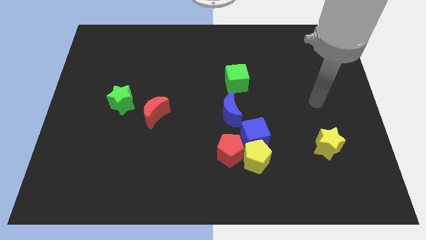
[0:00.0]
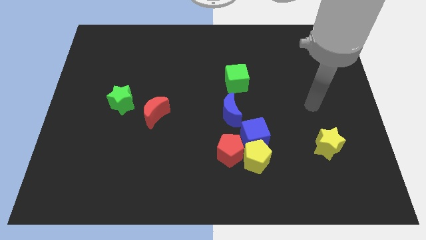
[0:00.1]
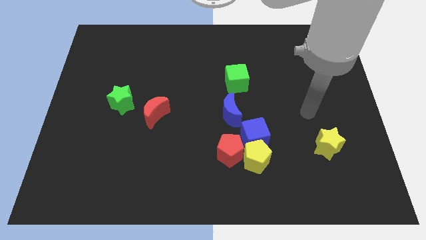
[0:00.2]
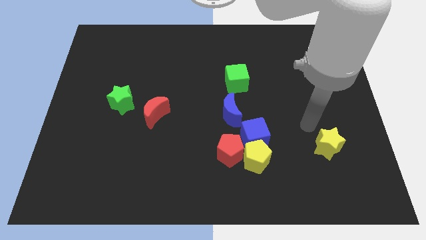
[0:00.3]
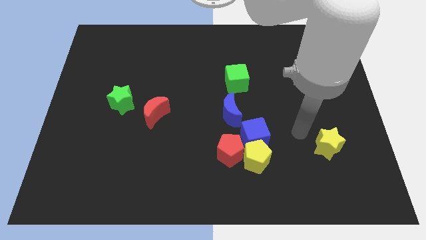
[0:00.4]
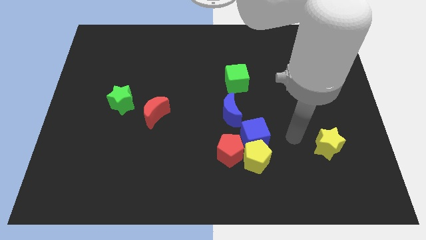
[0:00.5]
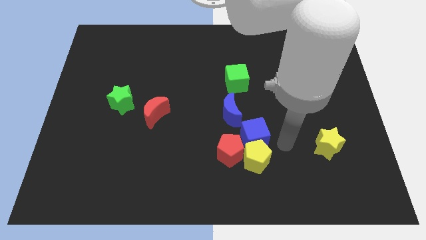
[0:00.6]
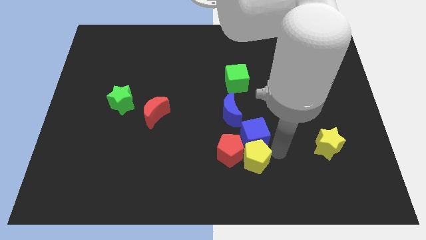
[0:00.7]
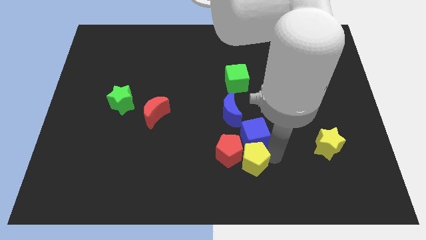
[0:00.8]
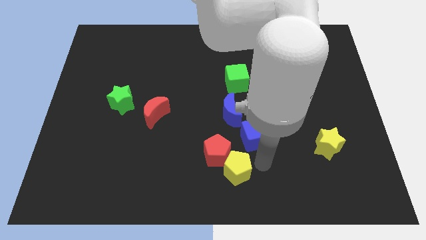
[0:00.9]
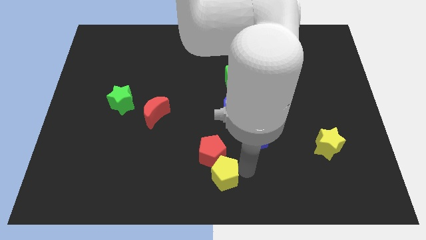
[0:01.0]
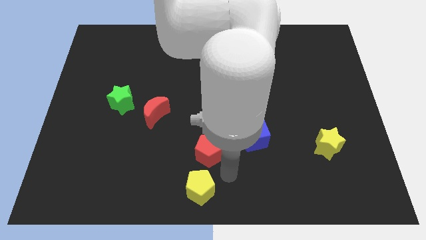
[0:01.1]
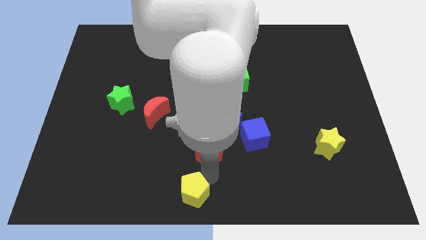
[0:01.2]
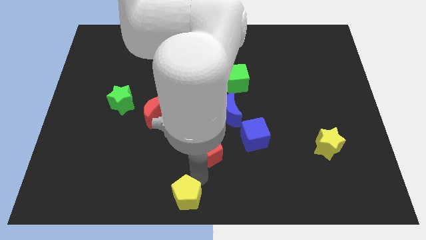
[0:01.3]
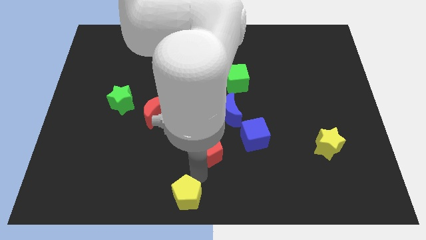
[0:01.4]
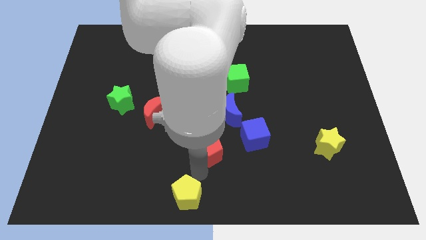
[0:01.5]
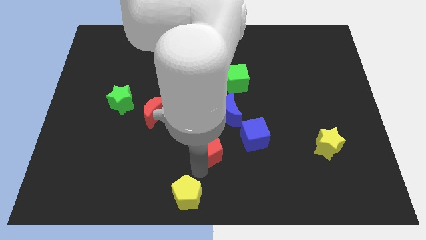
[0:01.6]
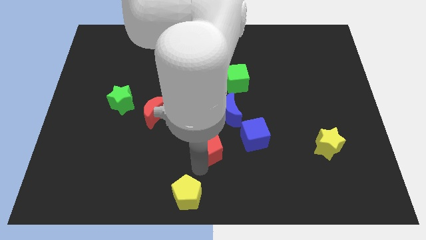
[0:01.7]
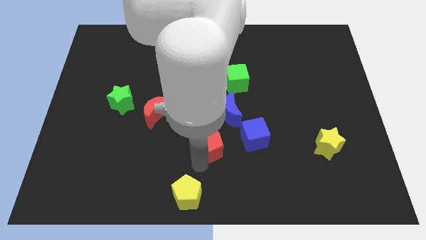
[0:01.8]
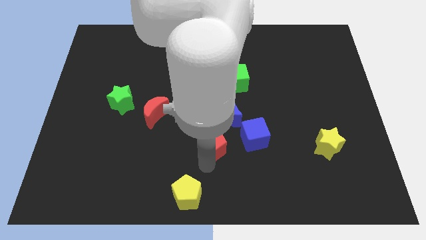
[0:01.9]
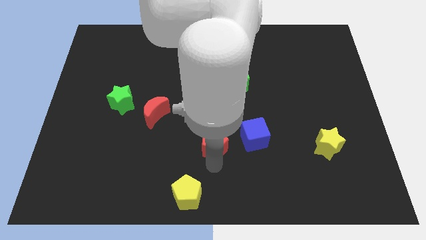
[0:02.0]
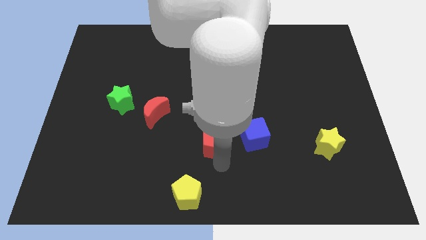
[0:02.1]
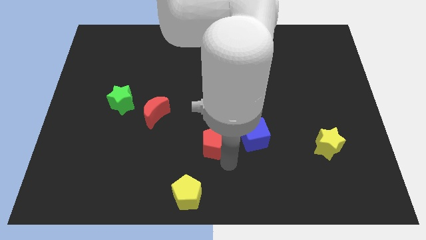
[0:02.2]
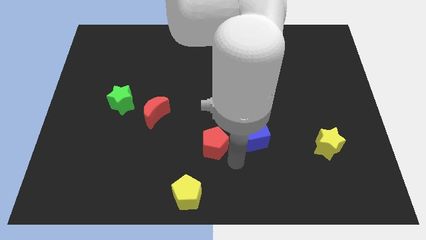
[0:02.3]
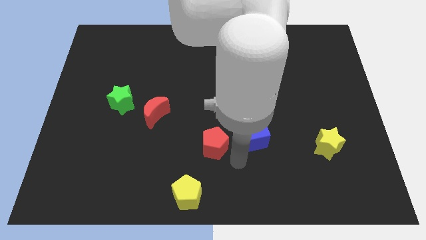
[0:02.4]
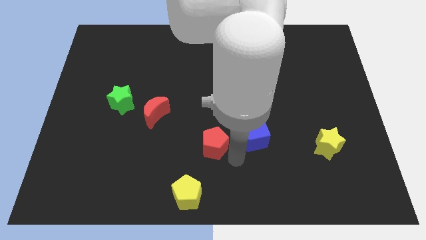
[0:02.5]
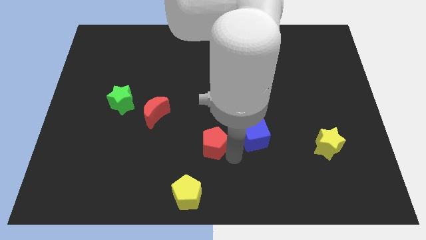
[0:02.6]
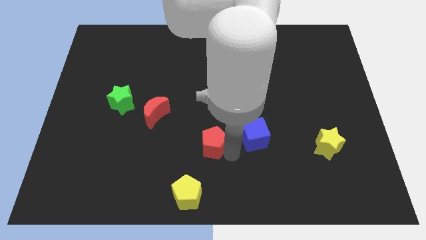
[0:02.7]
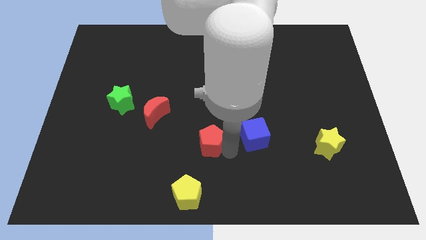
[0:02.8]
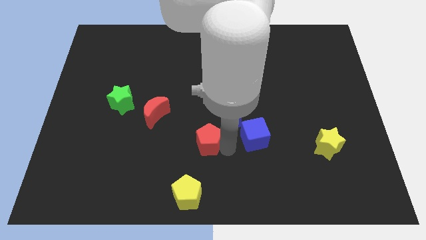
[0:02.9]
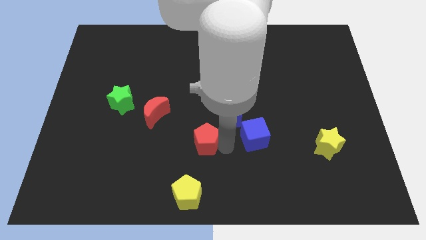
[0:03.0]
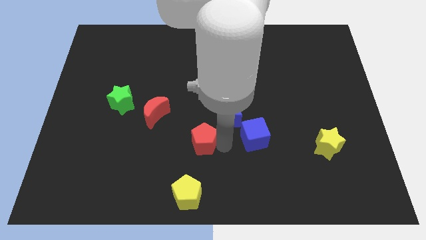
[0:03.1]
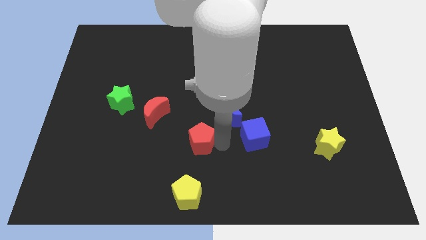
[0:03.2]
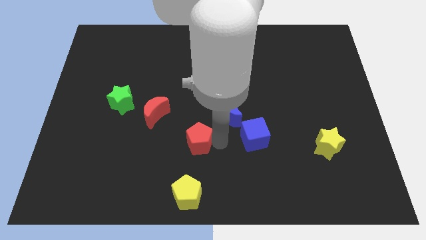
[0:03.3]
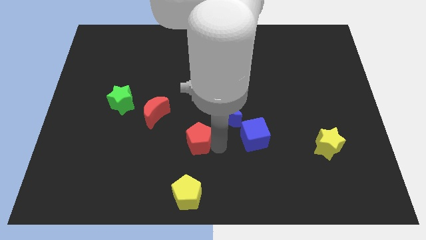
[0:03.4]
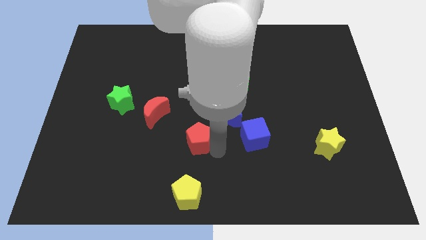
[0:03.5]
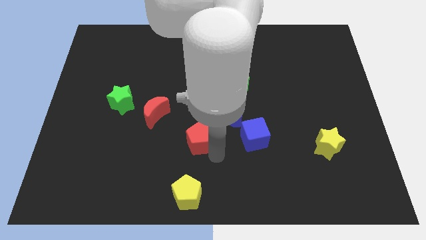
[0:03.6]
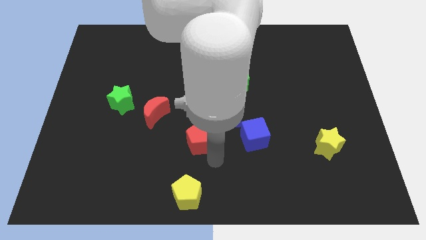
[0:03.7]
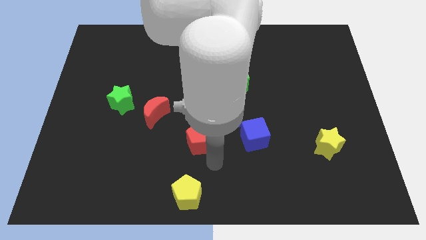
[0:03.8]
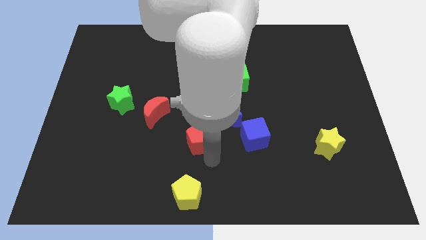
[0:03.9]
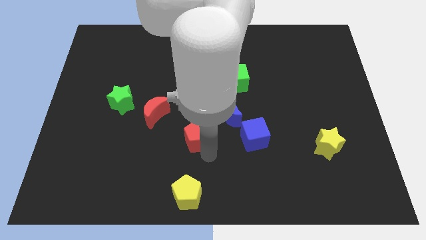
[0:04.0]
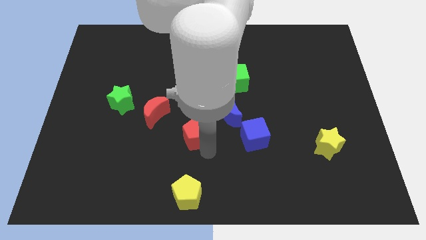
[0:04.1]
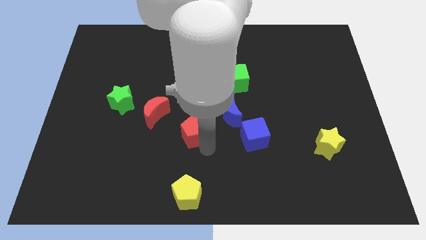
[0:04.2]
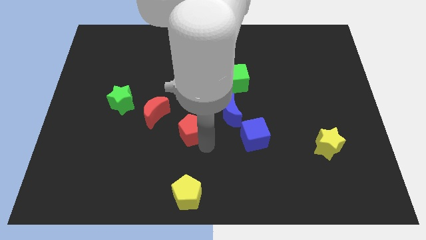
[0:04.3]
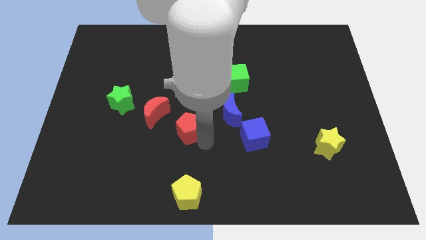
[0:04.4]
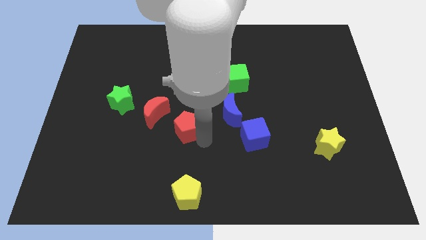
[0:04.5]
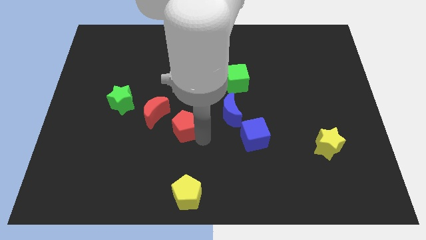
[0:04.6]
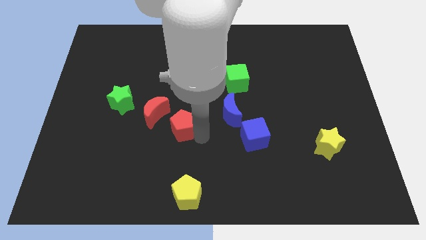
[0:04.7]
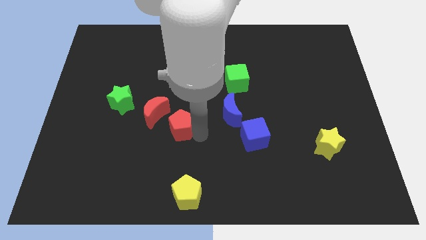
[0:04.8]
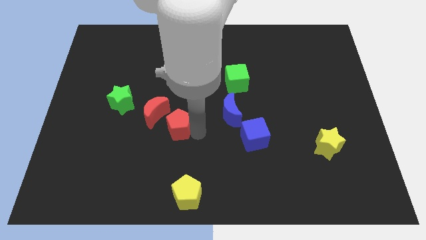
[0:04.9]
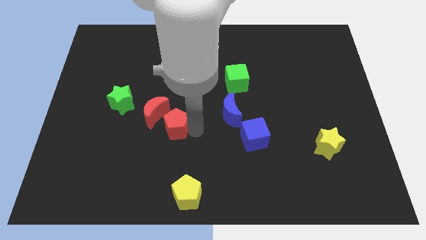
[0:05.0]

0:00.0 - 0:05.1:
put the red pentagon to the red moon

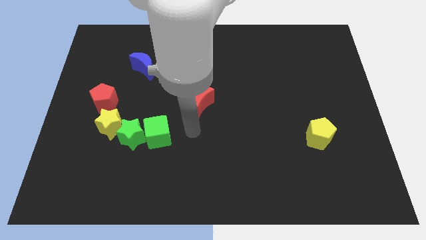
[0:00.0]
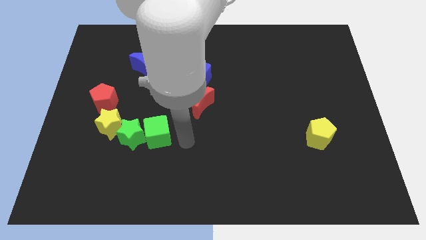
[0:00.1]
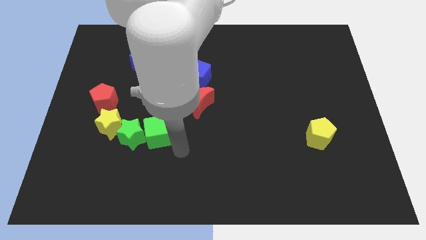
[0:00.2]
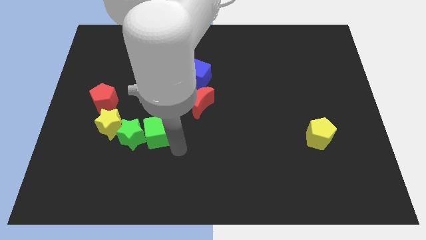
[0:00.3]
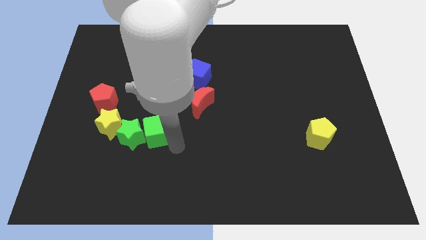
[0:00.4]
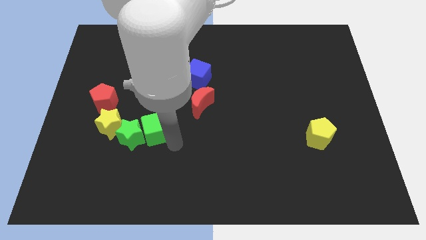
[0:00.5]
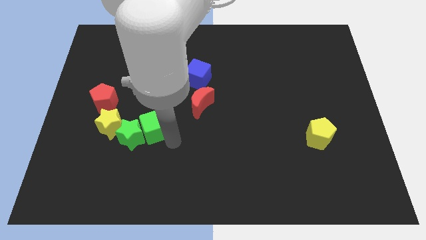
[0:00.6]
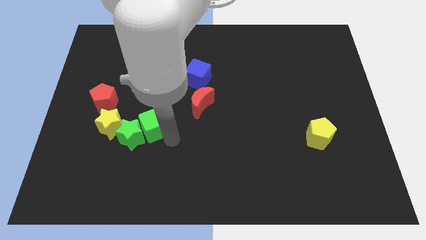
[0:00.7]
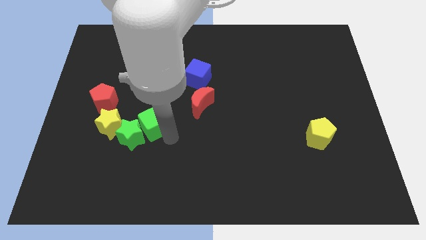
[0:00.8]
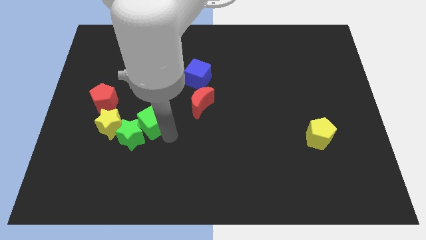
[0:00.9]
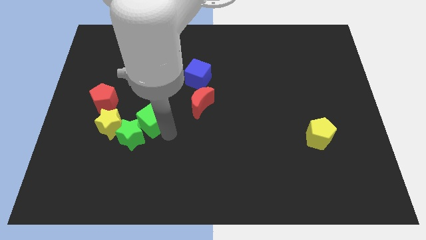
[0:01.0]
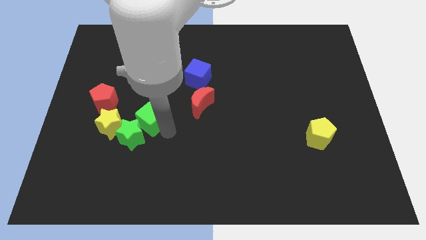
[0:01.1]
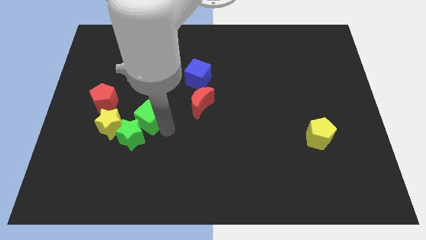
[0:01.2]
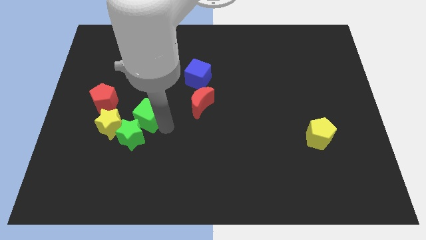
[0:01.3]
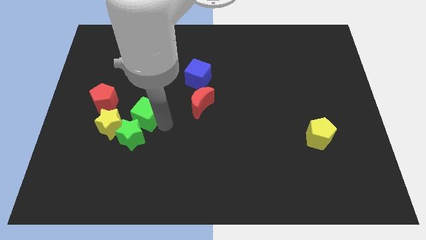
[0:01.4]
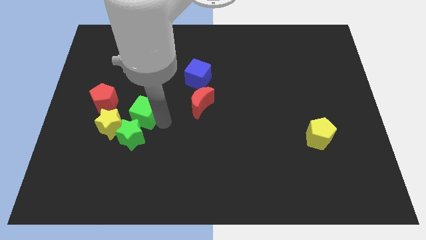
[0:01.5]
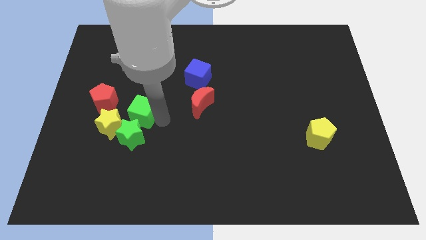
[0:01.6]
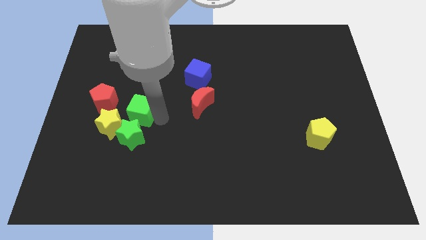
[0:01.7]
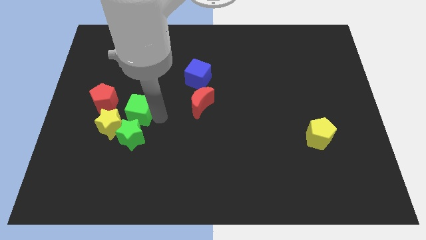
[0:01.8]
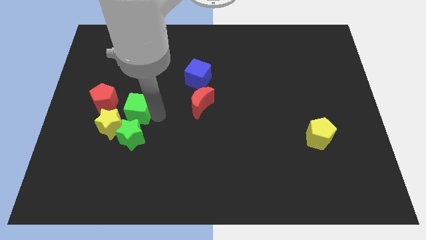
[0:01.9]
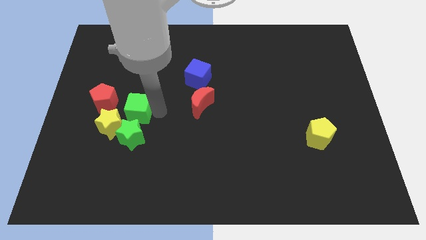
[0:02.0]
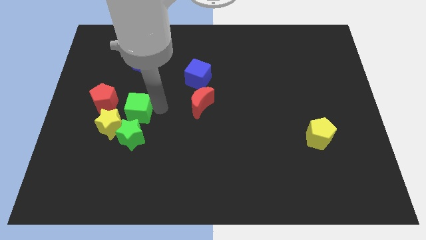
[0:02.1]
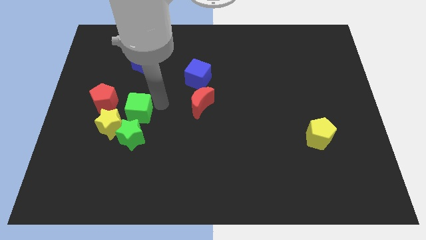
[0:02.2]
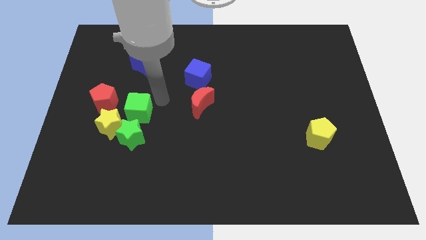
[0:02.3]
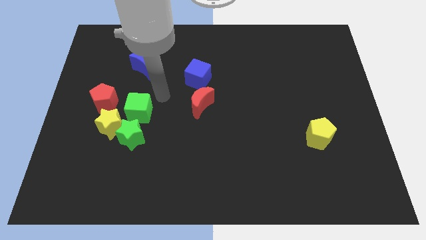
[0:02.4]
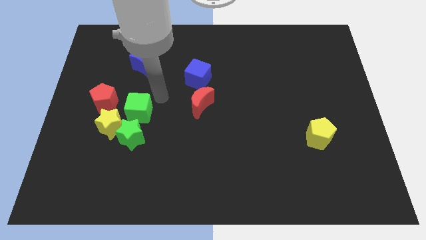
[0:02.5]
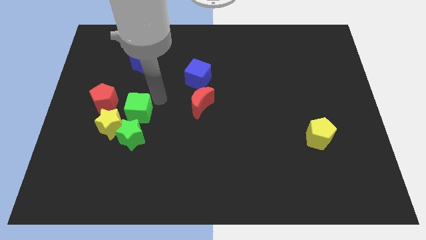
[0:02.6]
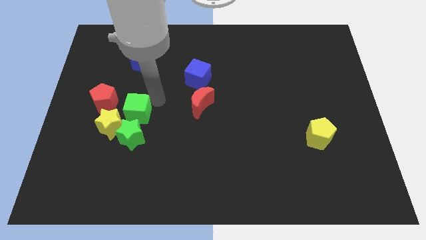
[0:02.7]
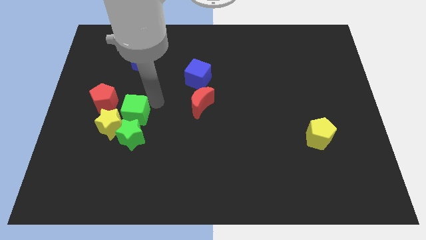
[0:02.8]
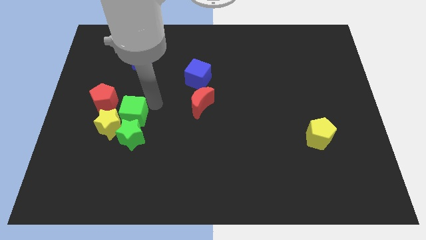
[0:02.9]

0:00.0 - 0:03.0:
slide the green cube close to the yellow star
